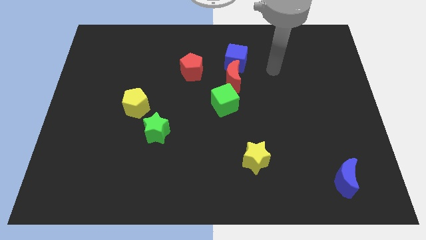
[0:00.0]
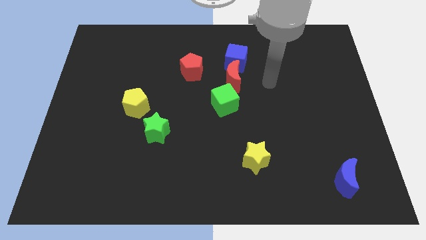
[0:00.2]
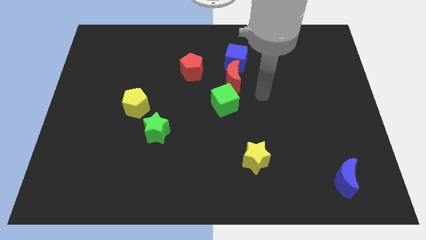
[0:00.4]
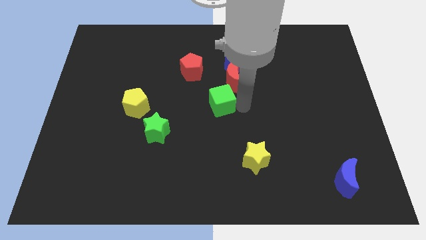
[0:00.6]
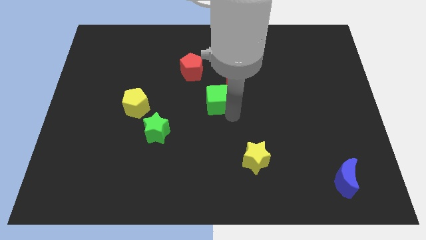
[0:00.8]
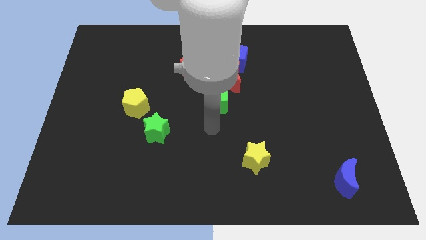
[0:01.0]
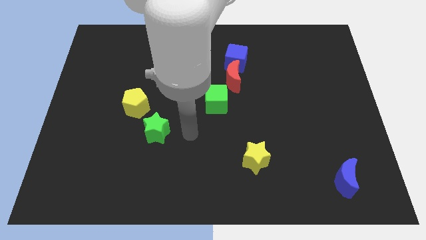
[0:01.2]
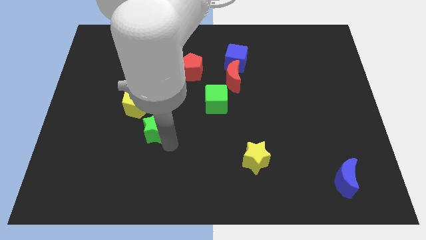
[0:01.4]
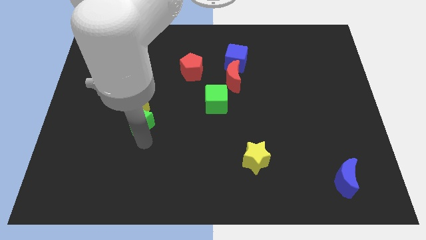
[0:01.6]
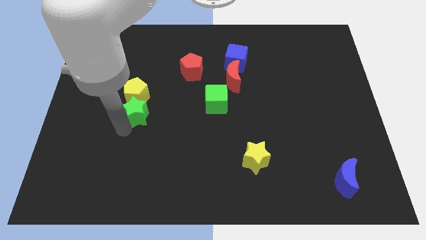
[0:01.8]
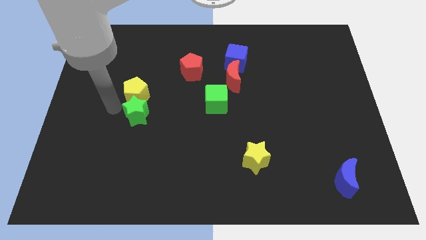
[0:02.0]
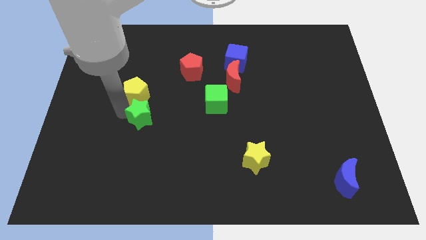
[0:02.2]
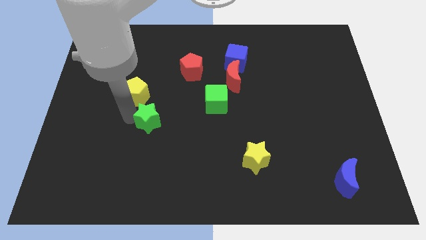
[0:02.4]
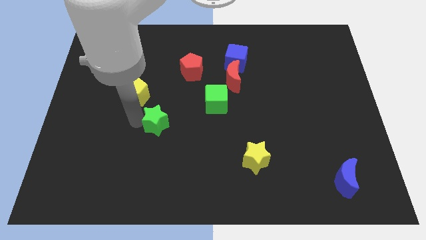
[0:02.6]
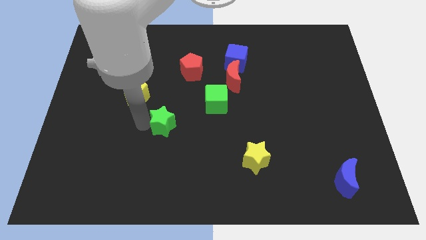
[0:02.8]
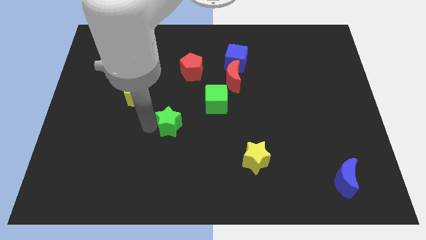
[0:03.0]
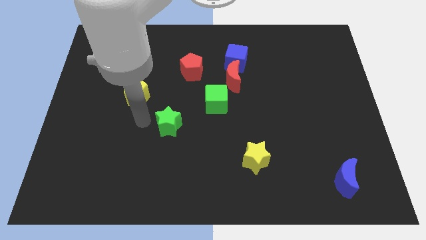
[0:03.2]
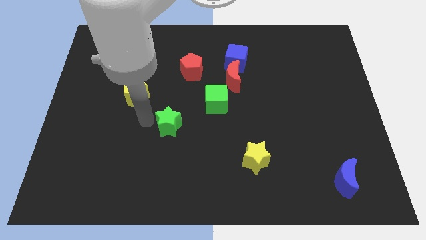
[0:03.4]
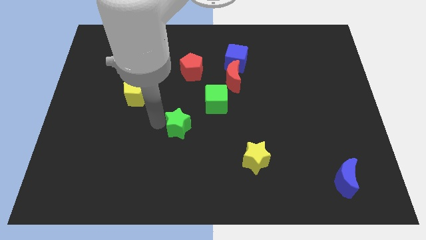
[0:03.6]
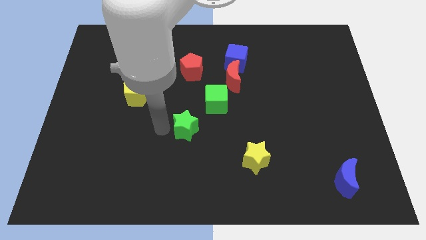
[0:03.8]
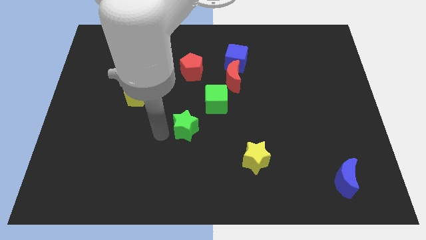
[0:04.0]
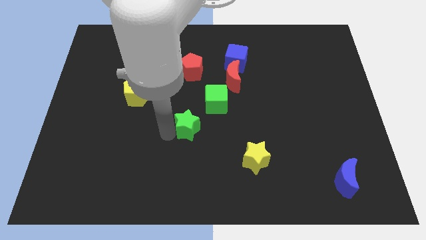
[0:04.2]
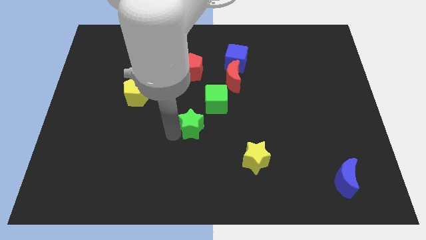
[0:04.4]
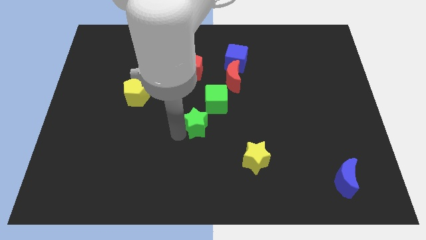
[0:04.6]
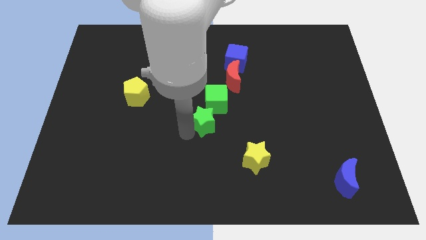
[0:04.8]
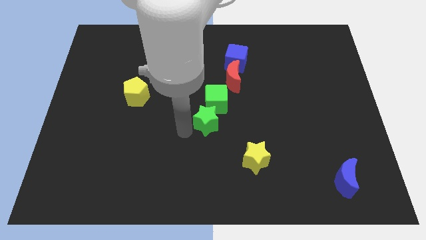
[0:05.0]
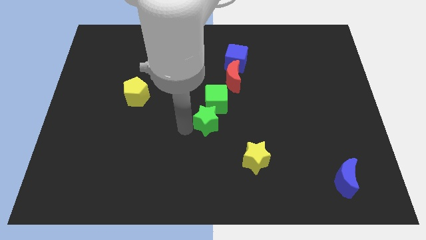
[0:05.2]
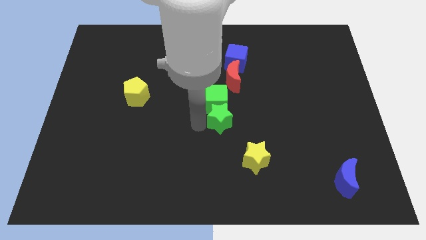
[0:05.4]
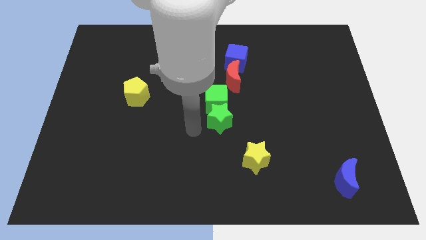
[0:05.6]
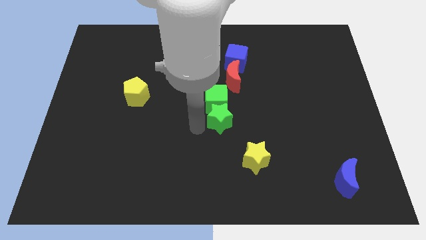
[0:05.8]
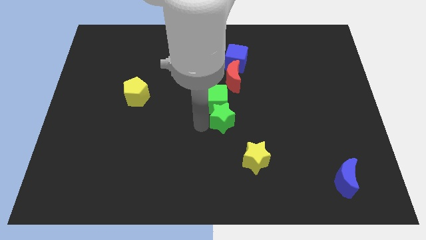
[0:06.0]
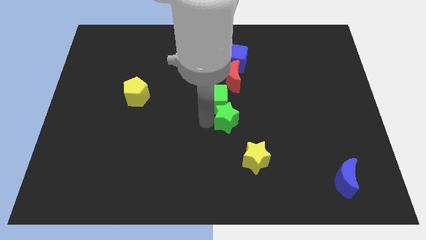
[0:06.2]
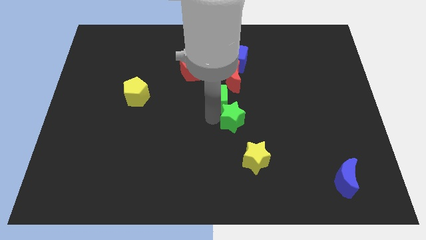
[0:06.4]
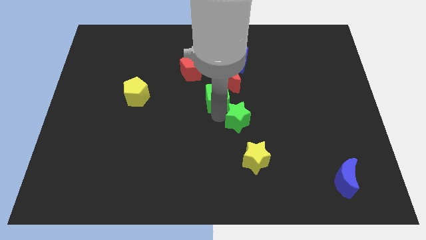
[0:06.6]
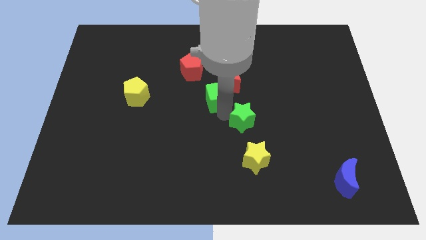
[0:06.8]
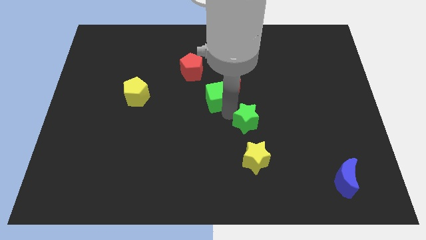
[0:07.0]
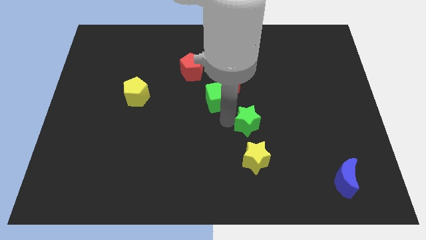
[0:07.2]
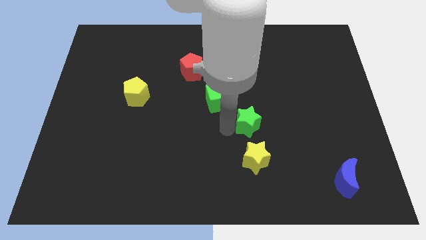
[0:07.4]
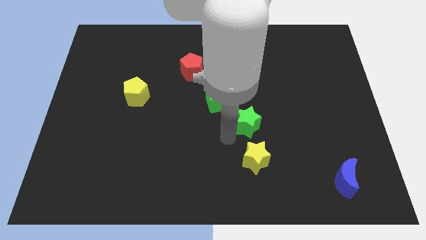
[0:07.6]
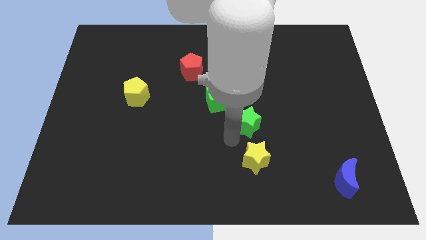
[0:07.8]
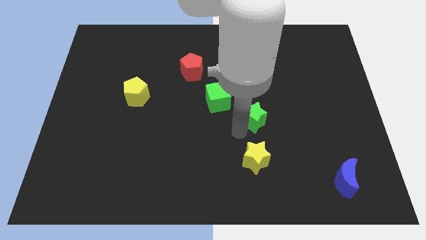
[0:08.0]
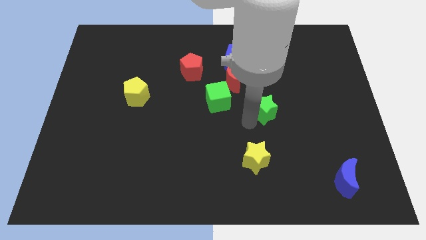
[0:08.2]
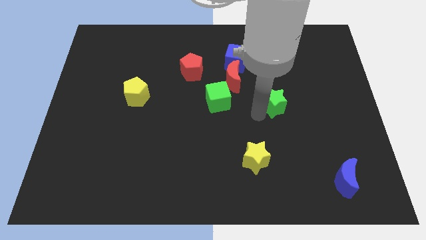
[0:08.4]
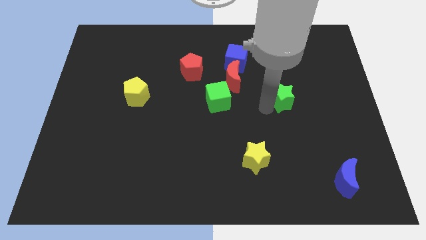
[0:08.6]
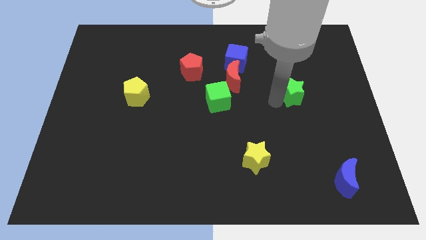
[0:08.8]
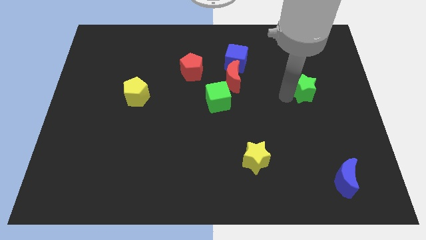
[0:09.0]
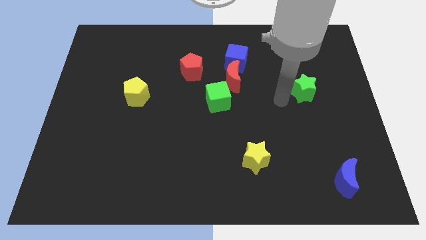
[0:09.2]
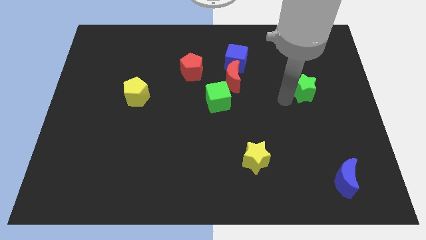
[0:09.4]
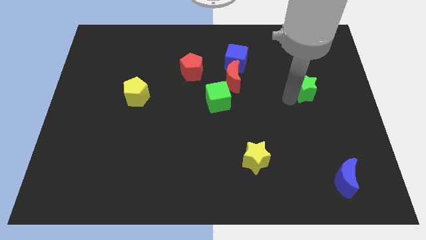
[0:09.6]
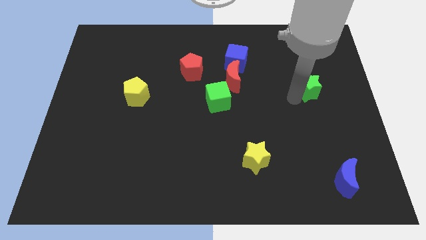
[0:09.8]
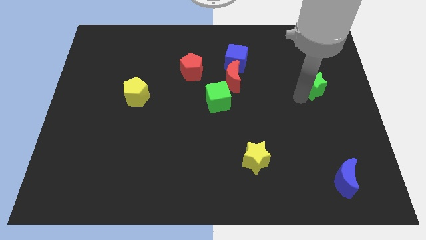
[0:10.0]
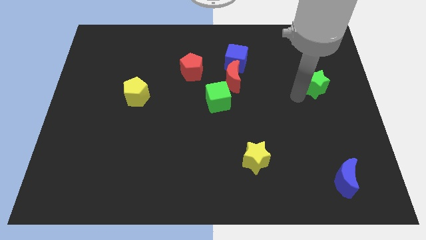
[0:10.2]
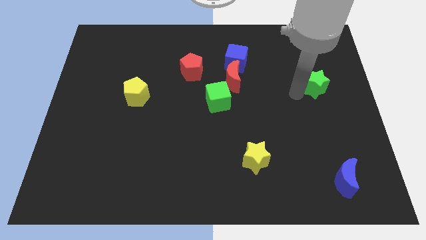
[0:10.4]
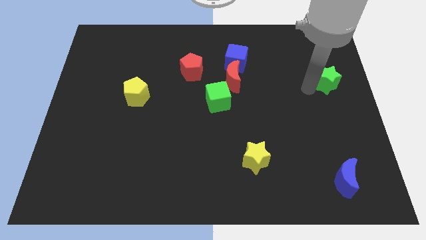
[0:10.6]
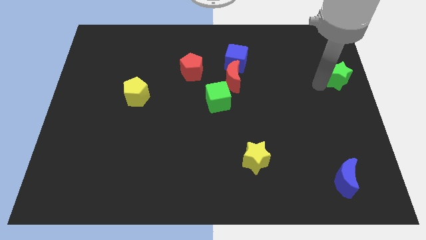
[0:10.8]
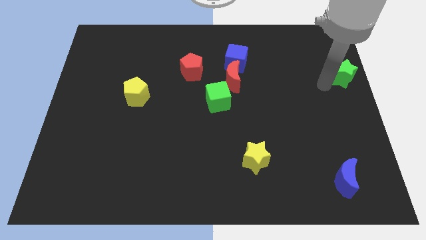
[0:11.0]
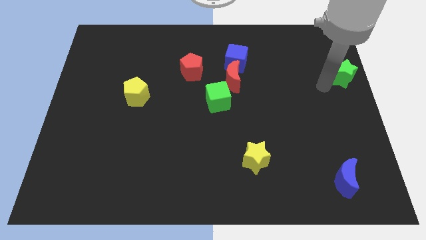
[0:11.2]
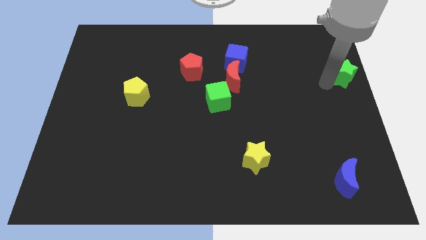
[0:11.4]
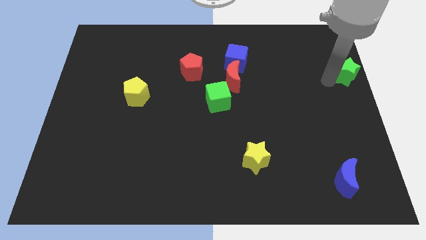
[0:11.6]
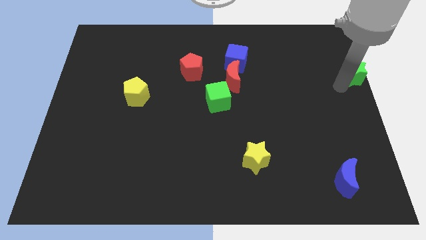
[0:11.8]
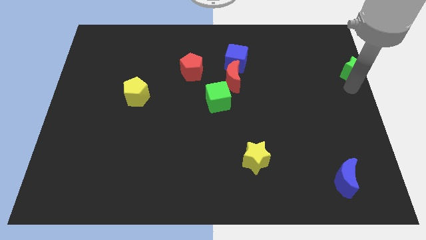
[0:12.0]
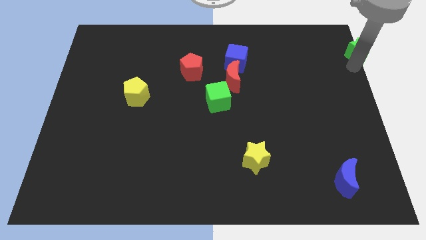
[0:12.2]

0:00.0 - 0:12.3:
slide the green star to the top right
